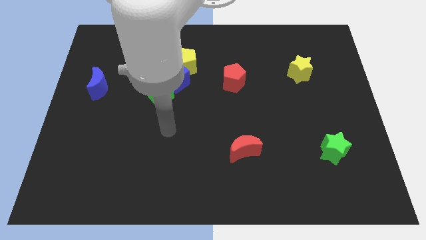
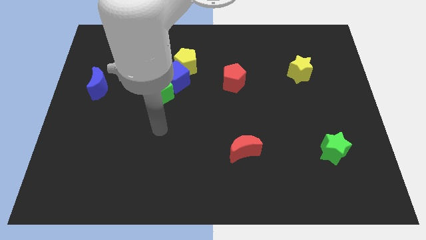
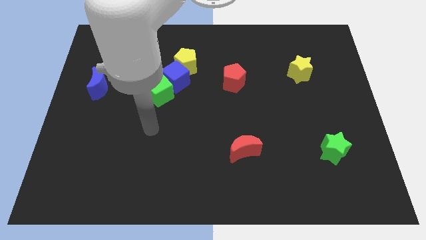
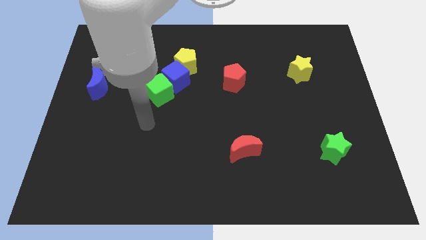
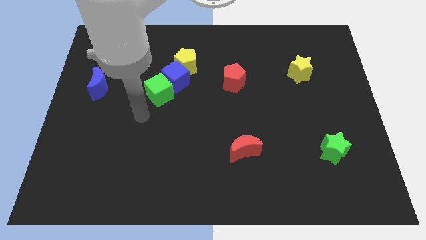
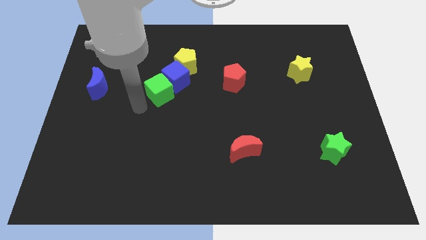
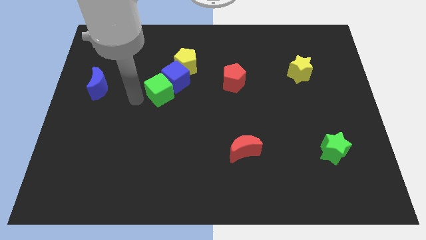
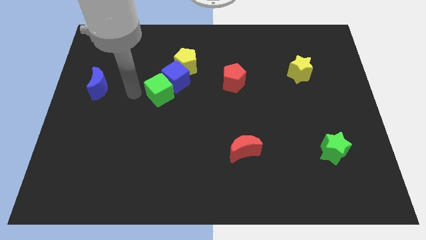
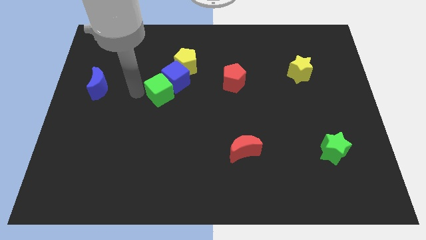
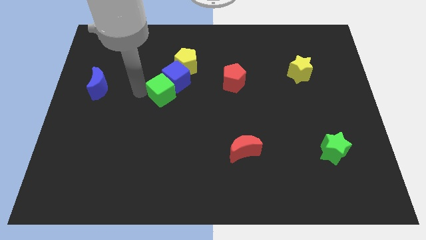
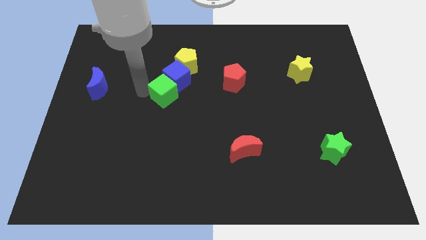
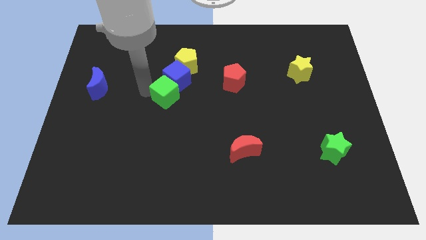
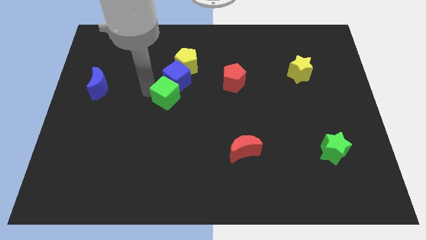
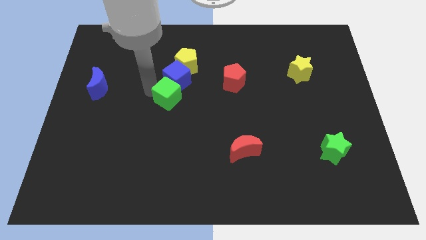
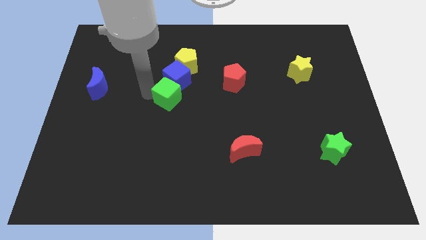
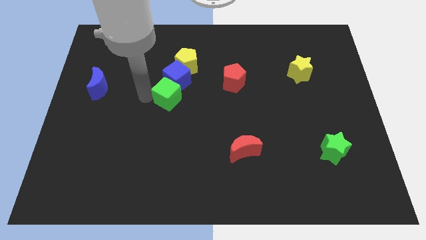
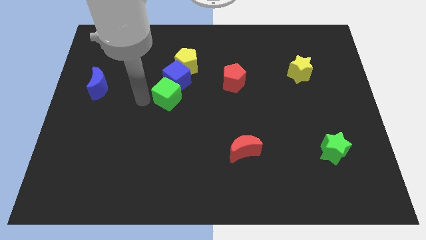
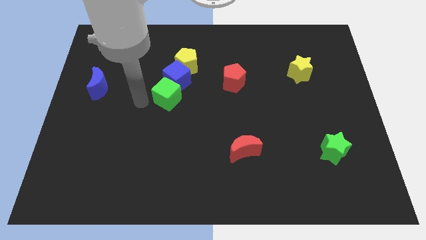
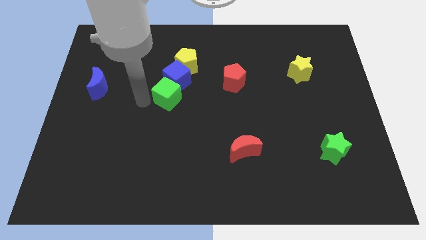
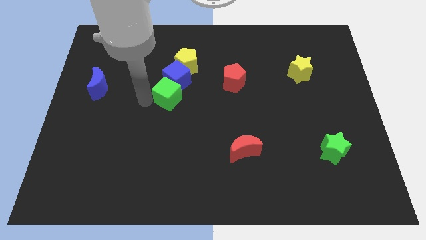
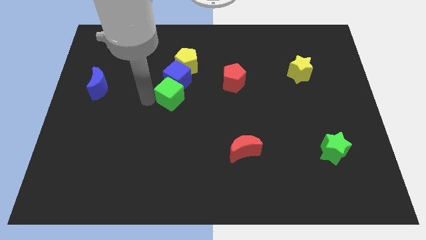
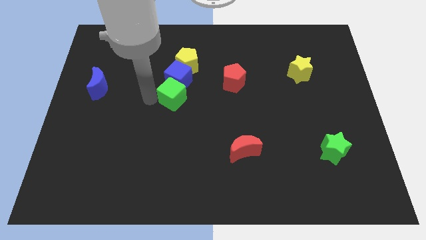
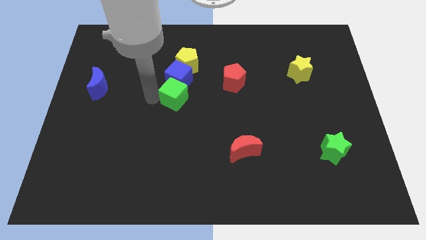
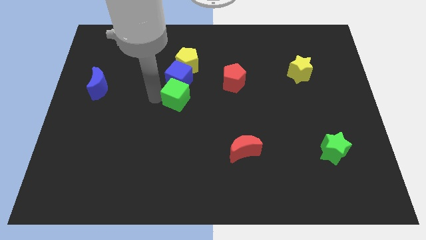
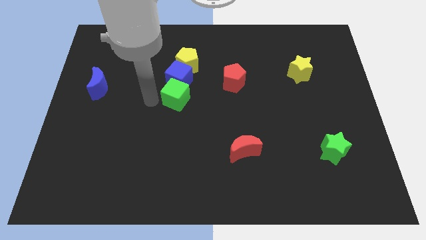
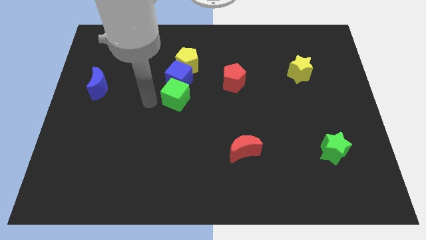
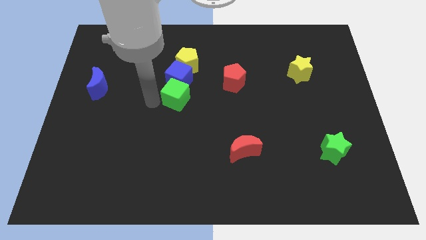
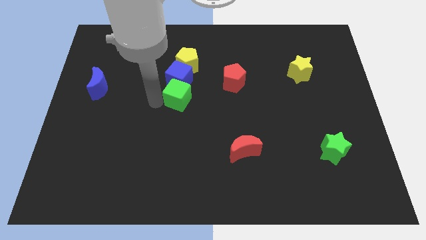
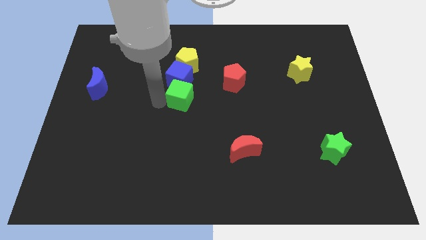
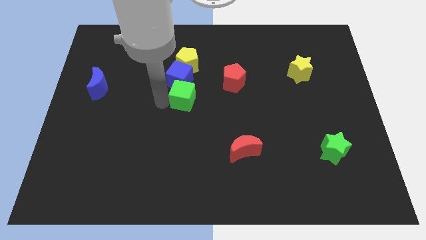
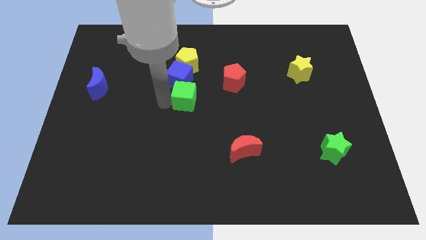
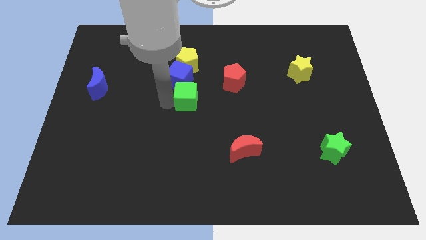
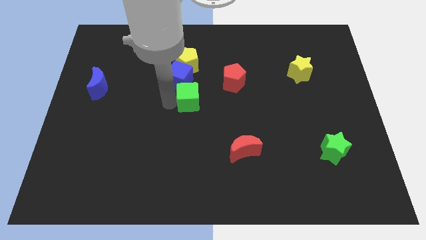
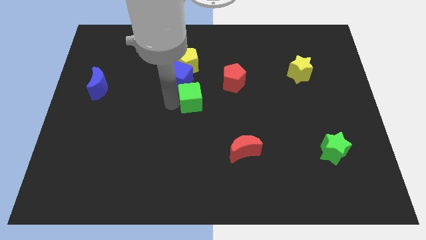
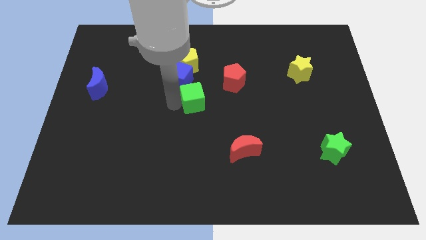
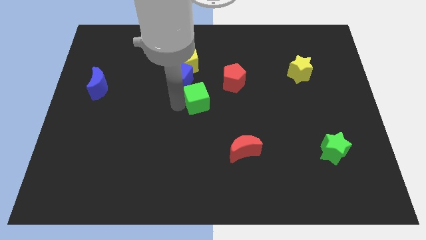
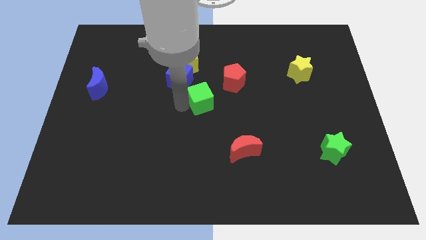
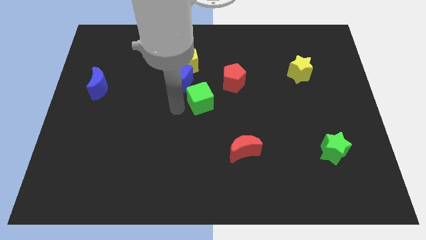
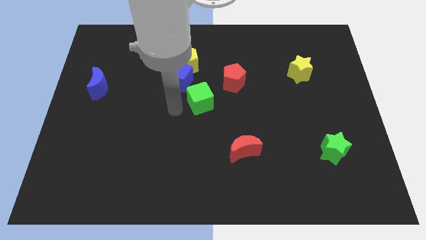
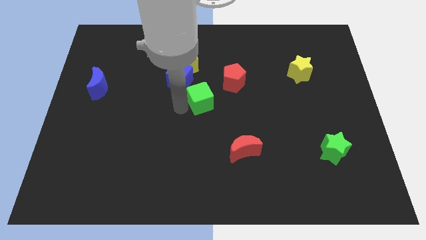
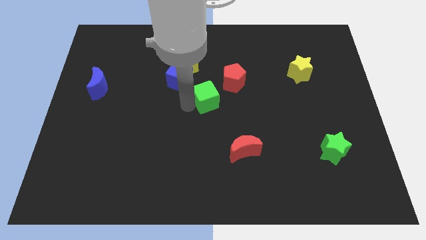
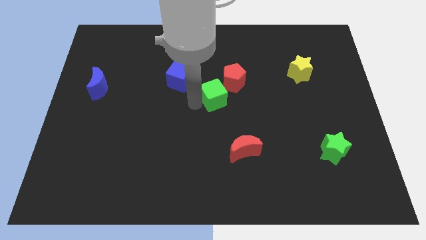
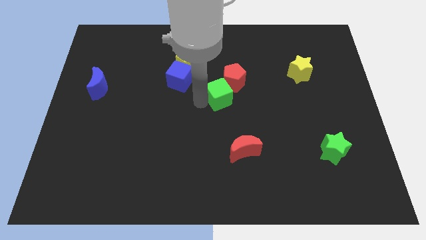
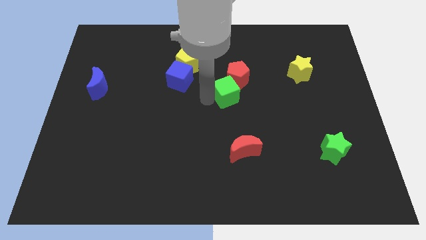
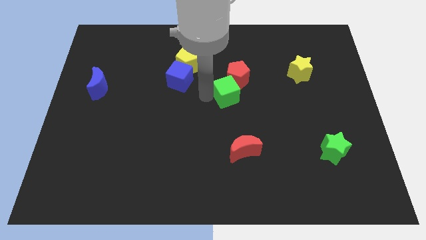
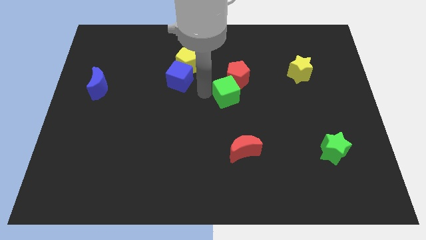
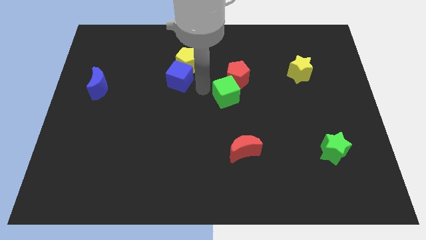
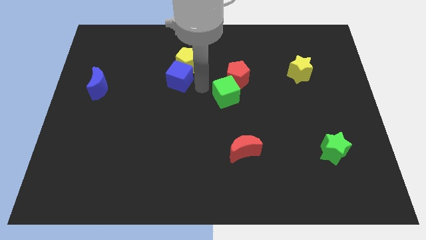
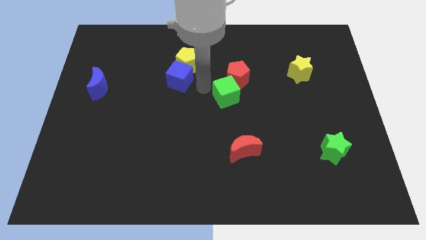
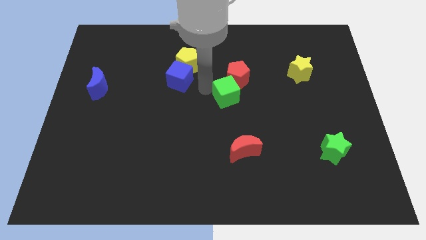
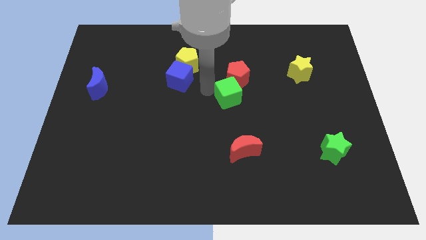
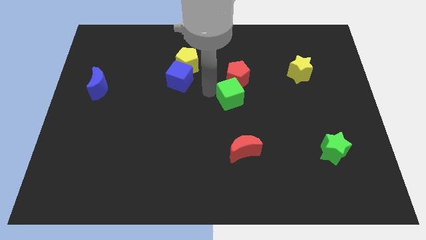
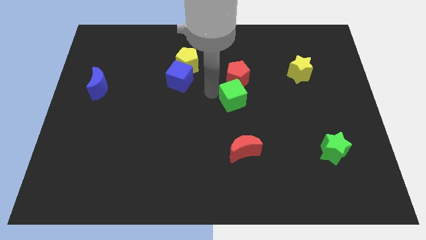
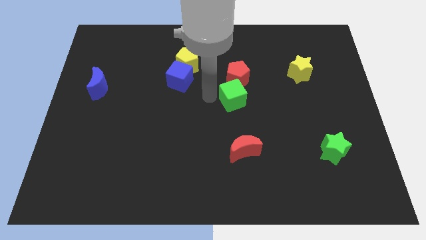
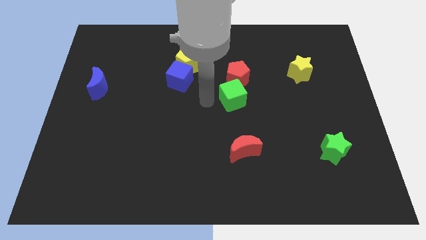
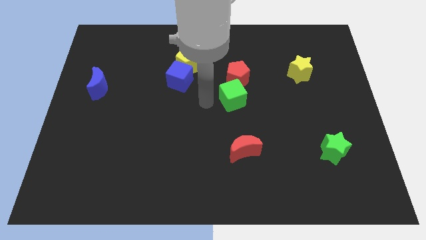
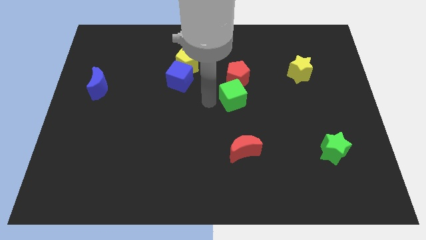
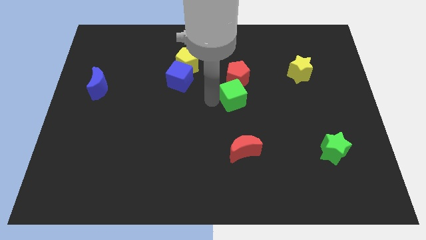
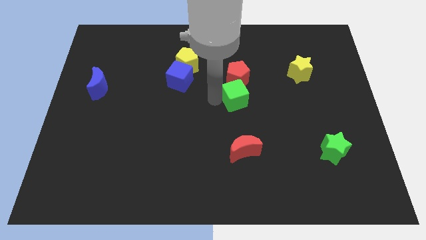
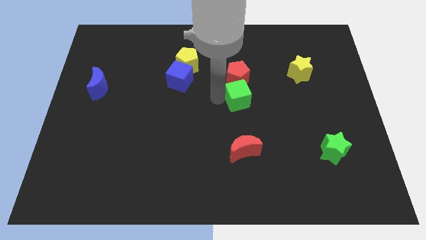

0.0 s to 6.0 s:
put the green cube to the bottom right side of the red pentagon
